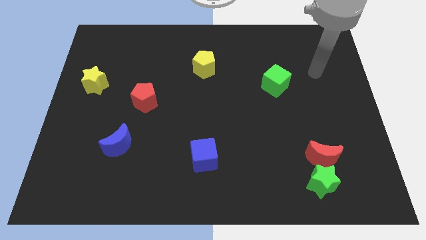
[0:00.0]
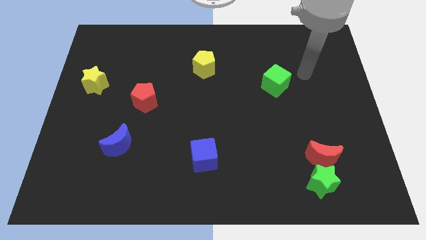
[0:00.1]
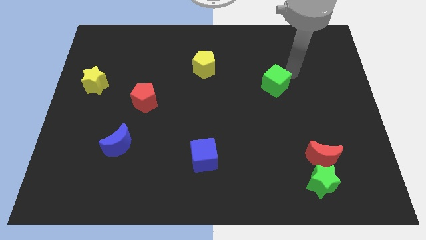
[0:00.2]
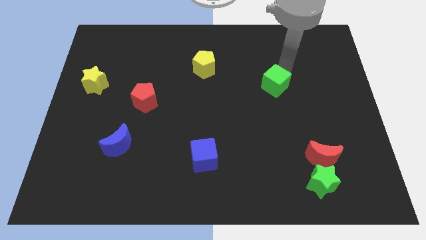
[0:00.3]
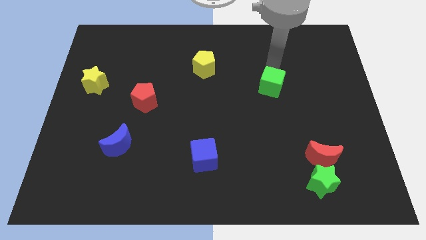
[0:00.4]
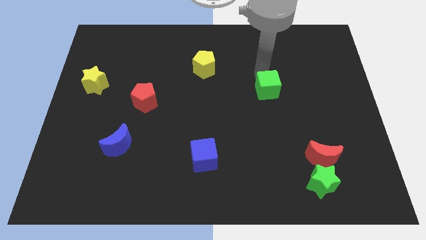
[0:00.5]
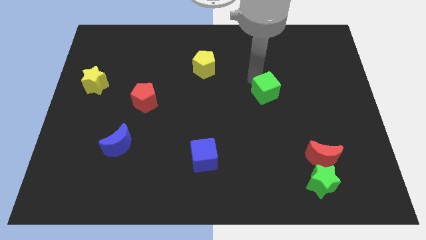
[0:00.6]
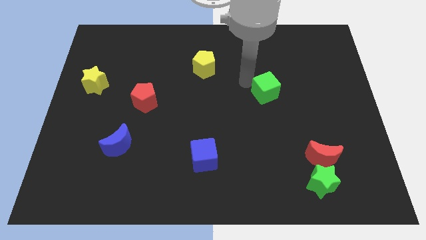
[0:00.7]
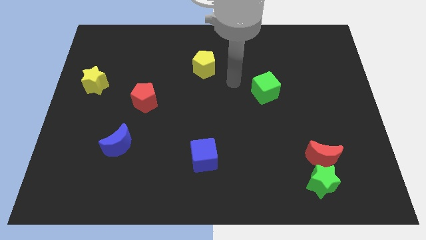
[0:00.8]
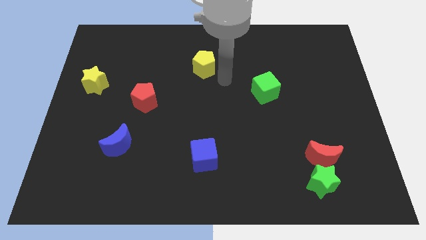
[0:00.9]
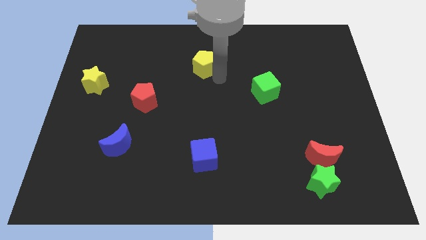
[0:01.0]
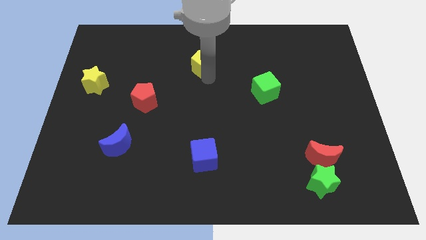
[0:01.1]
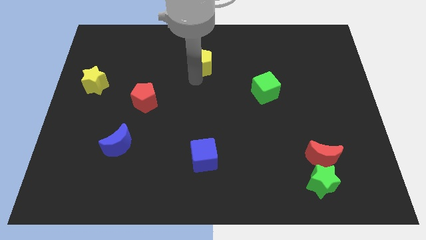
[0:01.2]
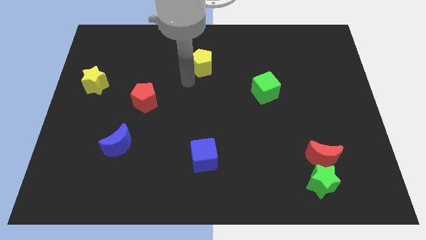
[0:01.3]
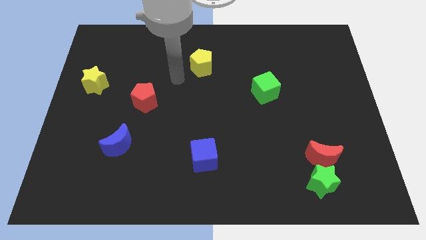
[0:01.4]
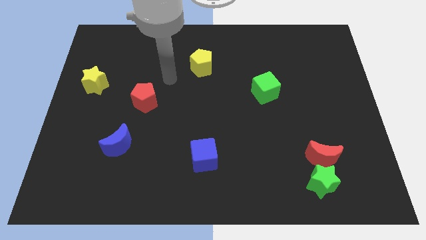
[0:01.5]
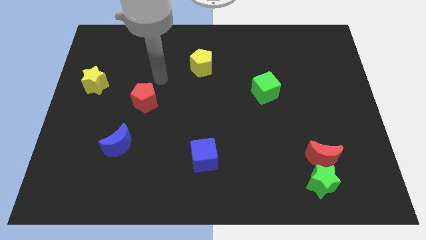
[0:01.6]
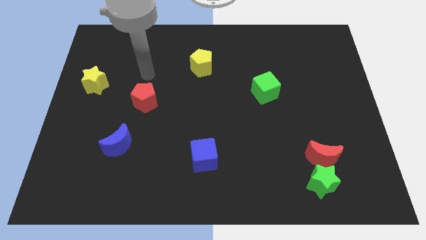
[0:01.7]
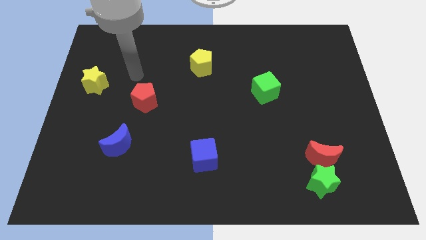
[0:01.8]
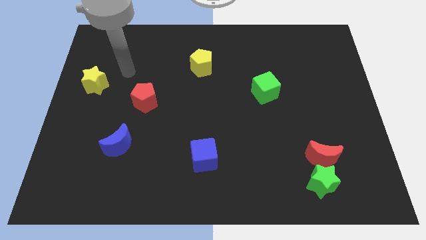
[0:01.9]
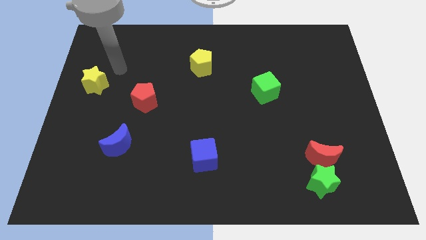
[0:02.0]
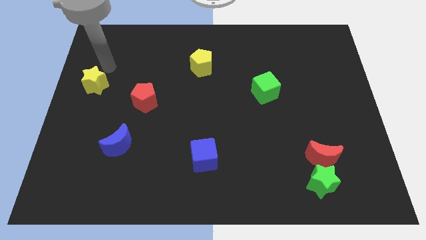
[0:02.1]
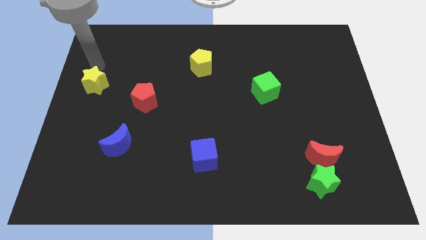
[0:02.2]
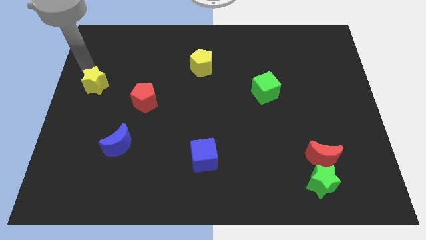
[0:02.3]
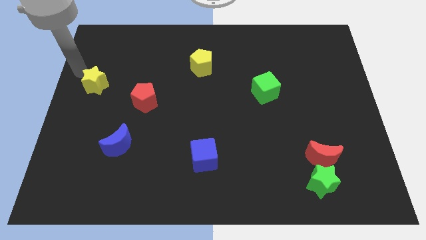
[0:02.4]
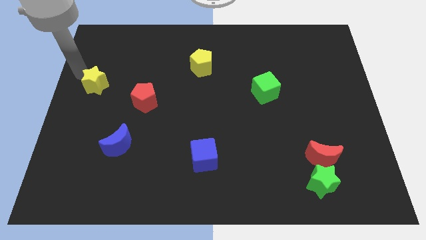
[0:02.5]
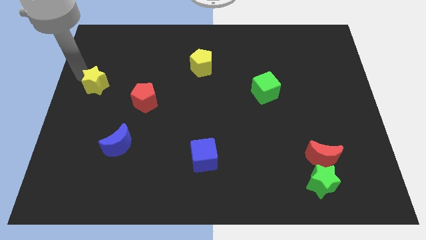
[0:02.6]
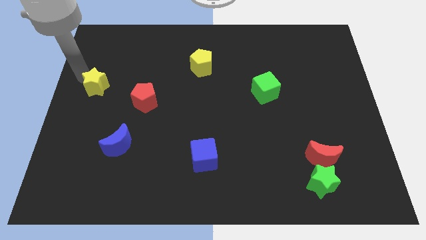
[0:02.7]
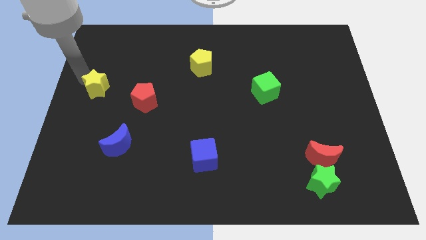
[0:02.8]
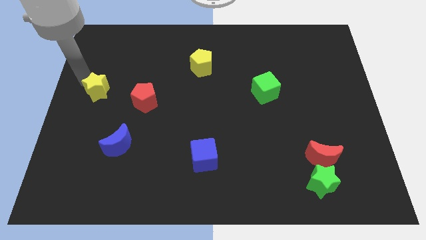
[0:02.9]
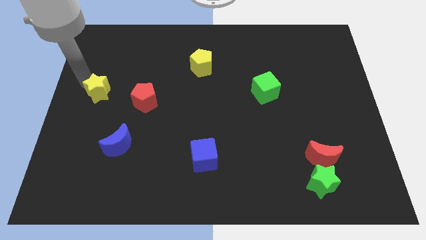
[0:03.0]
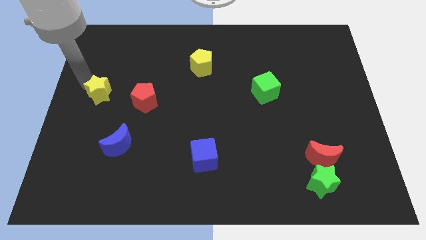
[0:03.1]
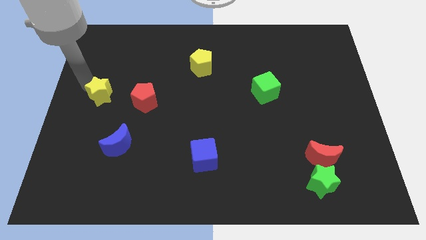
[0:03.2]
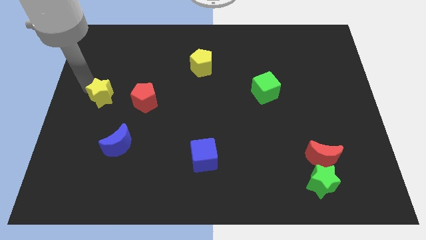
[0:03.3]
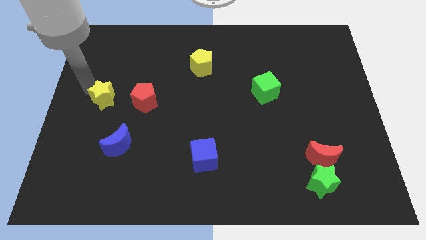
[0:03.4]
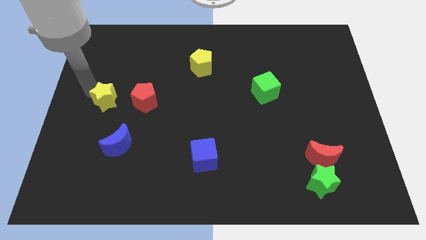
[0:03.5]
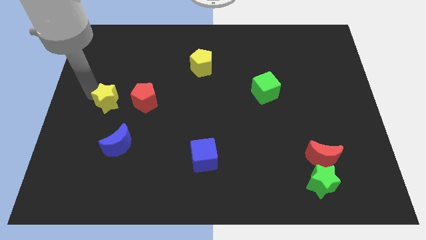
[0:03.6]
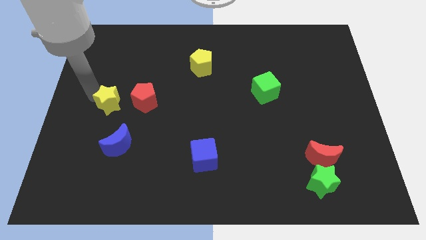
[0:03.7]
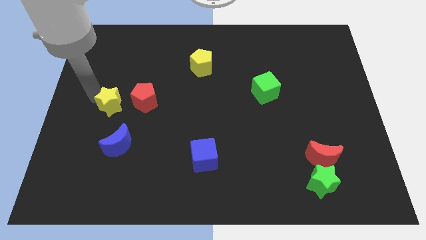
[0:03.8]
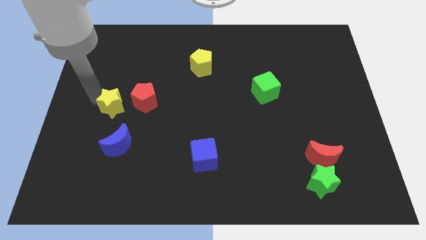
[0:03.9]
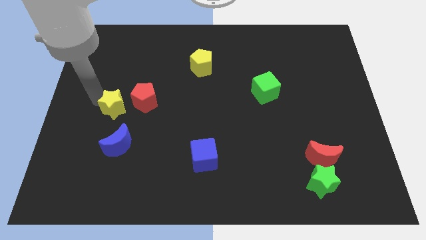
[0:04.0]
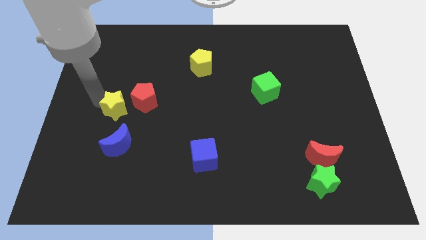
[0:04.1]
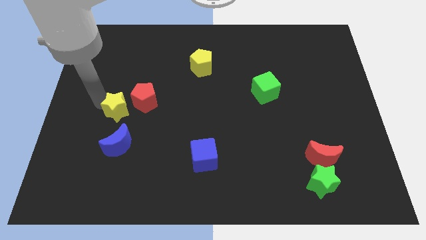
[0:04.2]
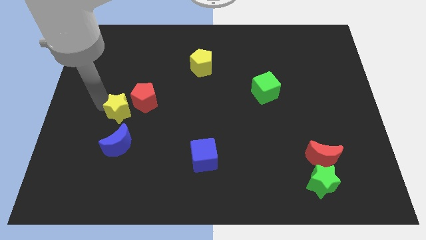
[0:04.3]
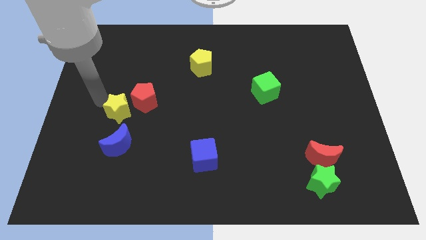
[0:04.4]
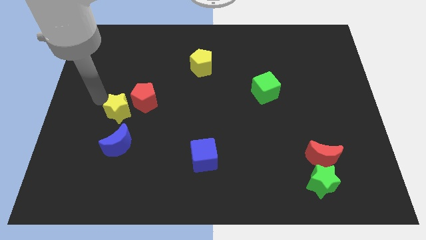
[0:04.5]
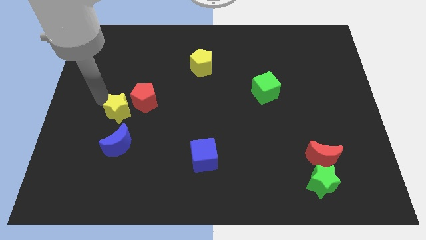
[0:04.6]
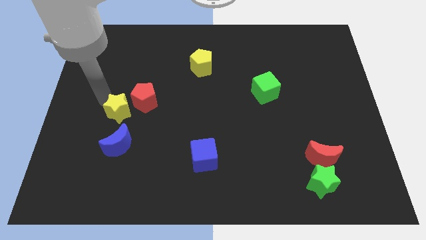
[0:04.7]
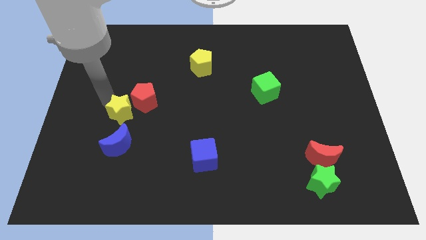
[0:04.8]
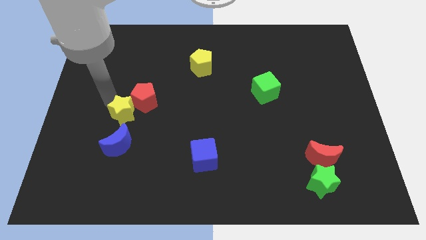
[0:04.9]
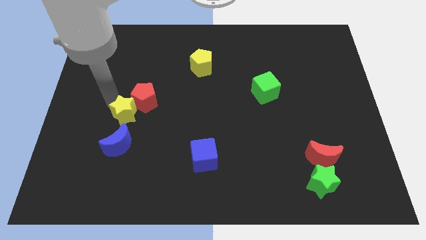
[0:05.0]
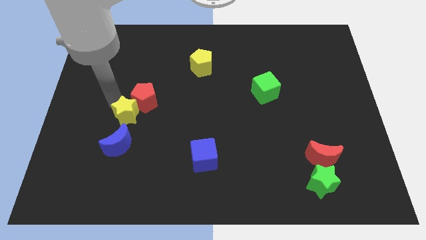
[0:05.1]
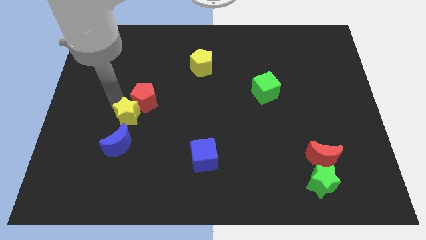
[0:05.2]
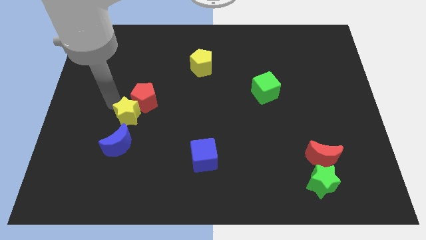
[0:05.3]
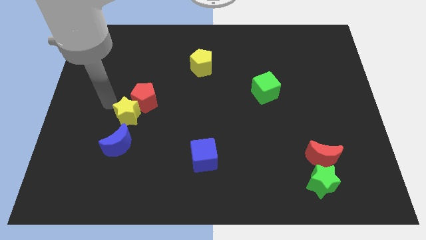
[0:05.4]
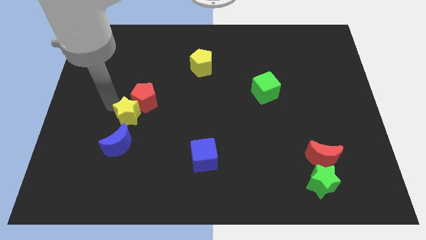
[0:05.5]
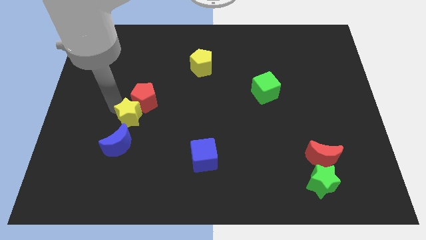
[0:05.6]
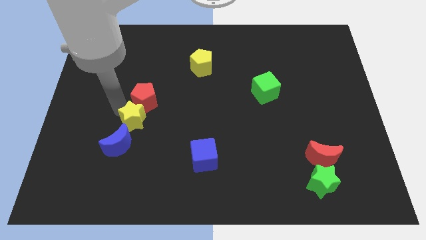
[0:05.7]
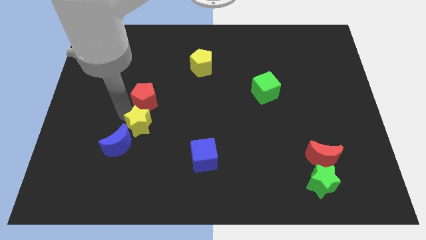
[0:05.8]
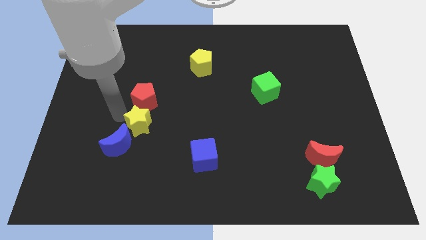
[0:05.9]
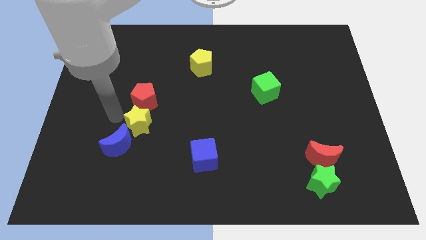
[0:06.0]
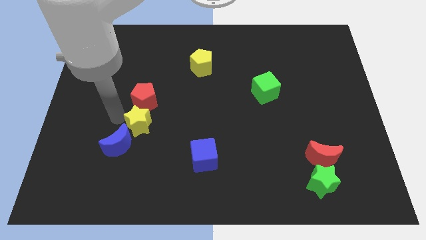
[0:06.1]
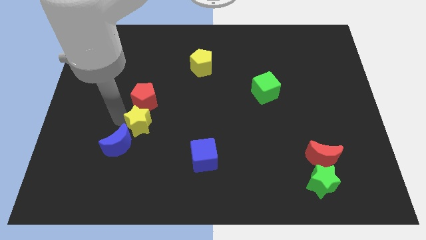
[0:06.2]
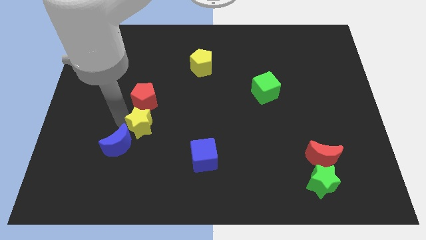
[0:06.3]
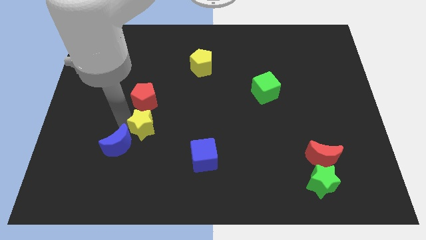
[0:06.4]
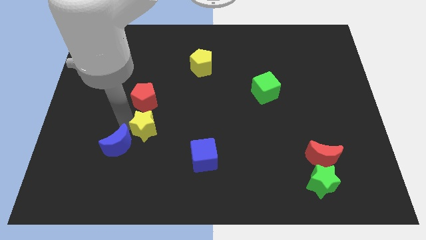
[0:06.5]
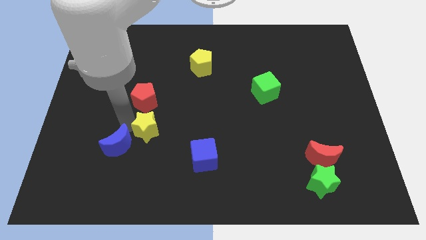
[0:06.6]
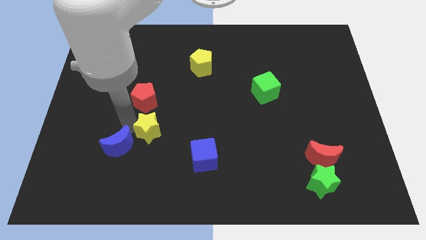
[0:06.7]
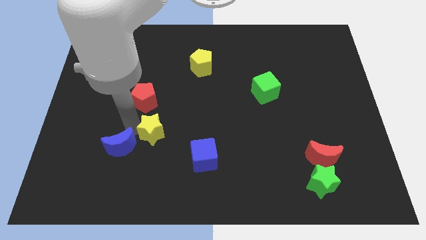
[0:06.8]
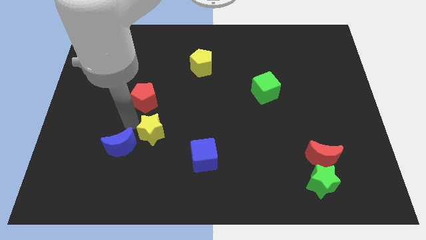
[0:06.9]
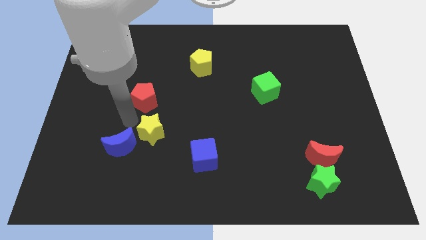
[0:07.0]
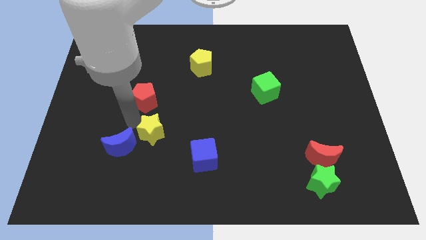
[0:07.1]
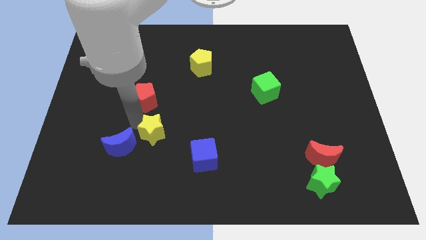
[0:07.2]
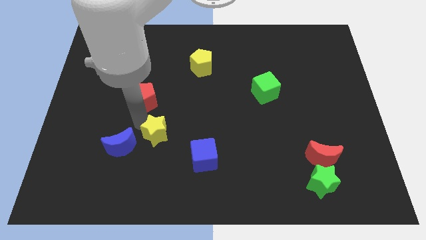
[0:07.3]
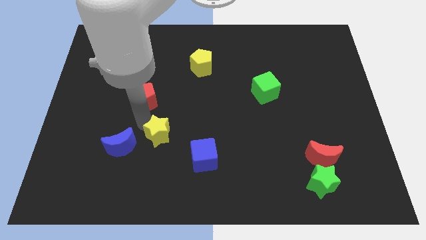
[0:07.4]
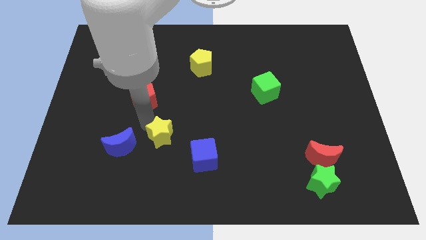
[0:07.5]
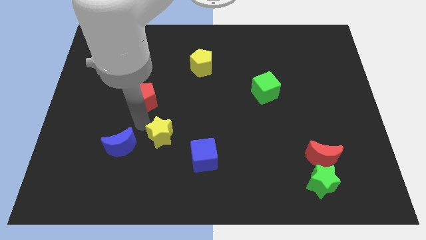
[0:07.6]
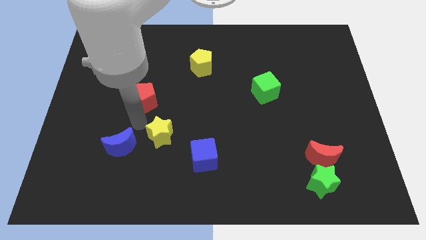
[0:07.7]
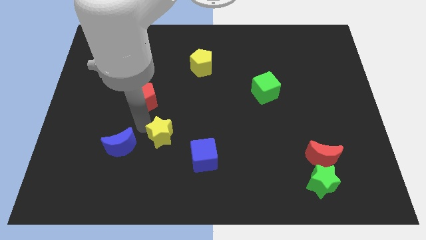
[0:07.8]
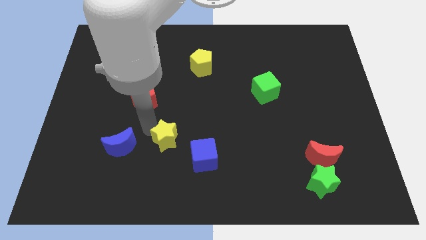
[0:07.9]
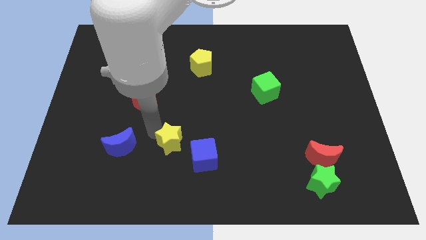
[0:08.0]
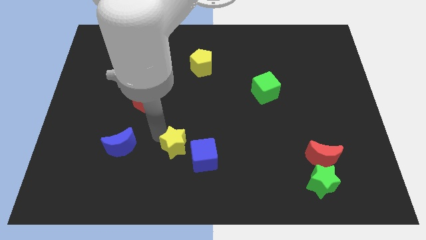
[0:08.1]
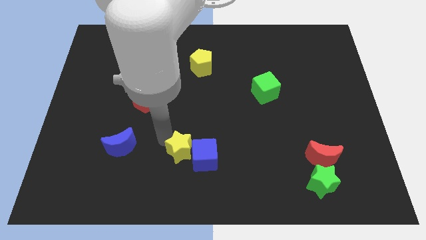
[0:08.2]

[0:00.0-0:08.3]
put the yellow star next to the blue cube
